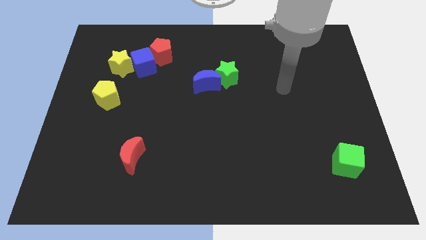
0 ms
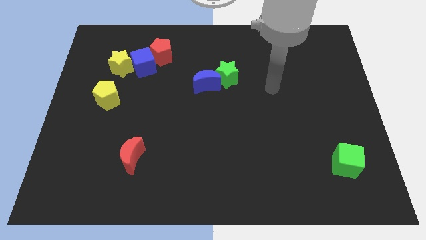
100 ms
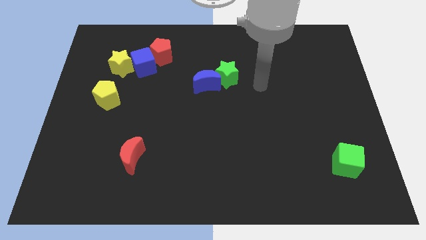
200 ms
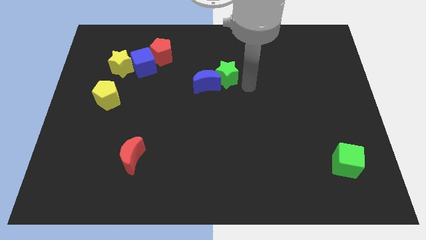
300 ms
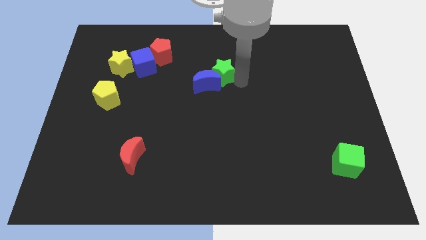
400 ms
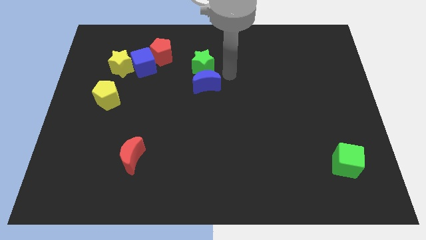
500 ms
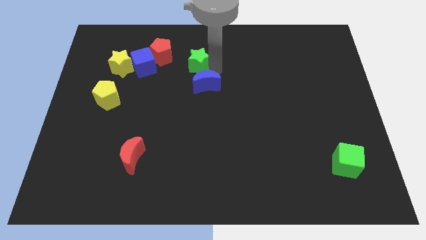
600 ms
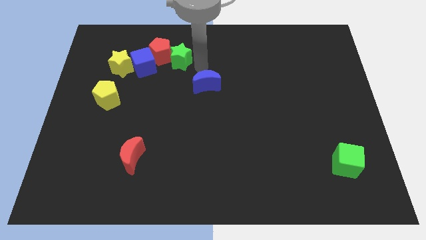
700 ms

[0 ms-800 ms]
separate the blue moon from the green star

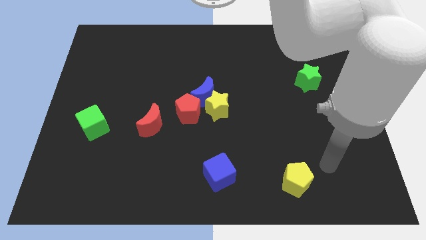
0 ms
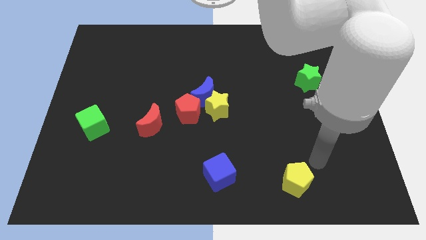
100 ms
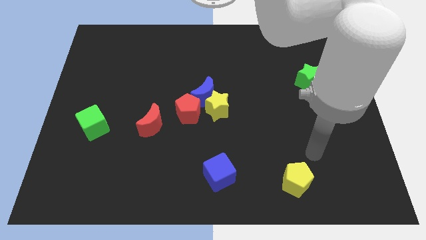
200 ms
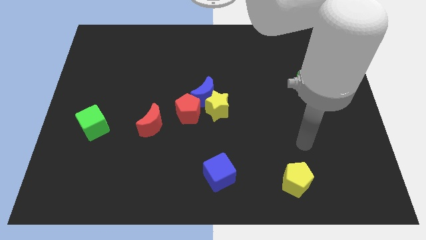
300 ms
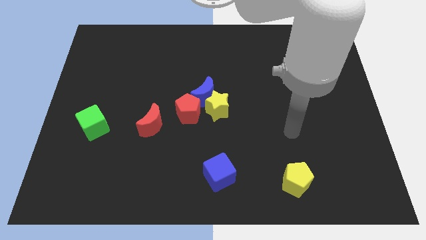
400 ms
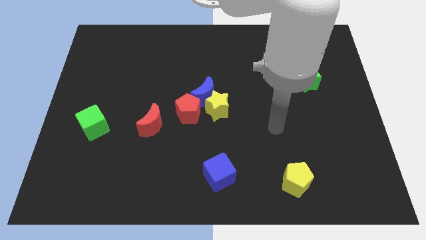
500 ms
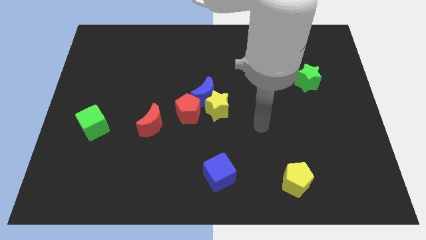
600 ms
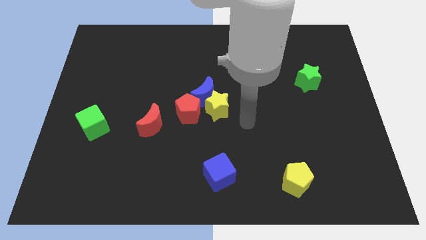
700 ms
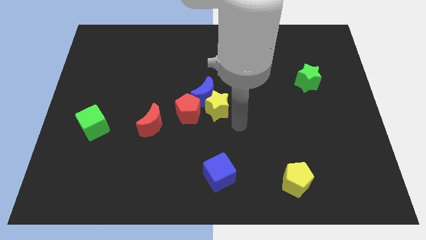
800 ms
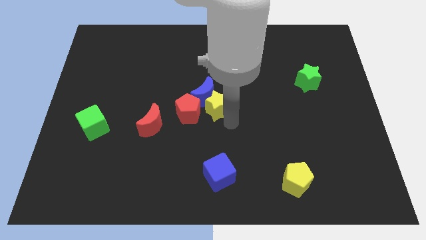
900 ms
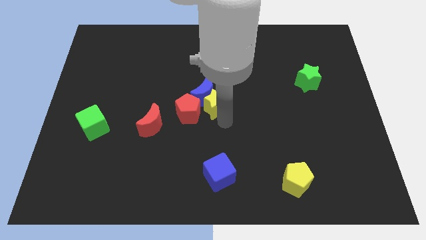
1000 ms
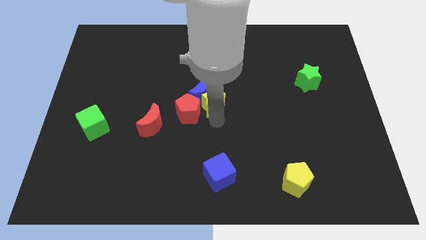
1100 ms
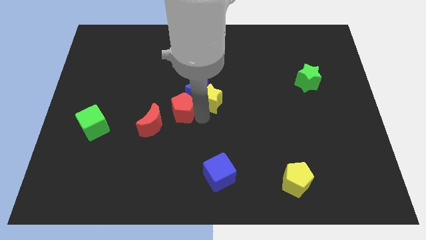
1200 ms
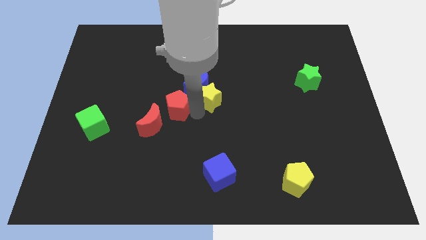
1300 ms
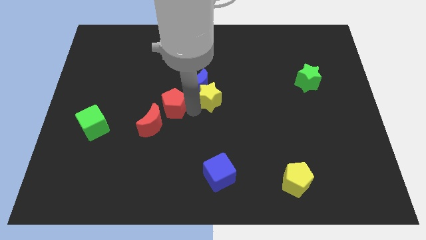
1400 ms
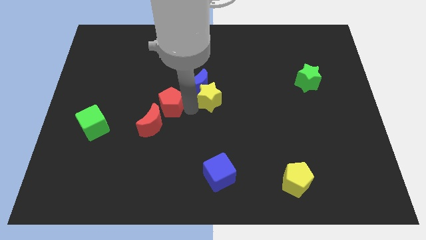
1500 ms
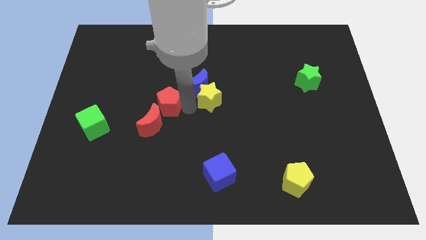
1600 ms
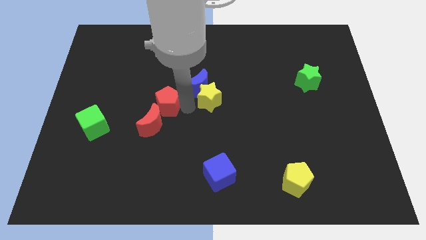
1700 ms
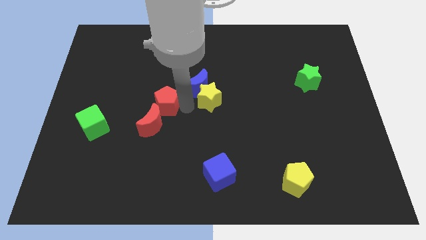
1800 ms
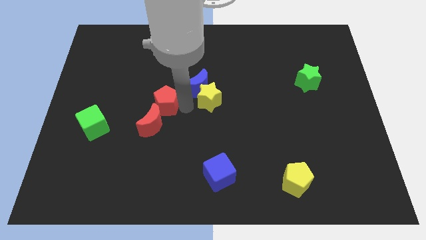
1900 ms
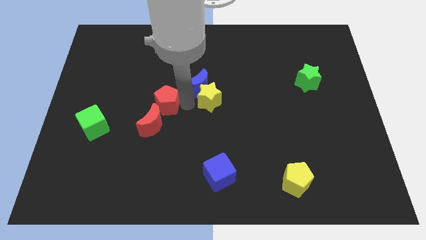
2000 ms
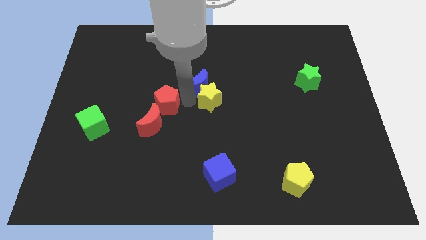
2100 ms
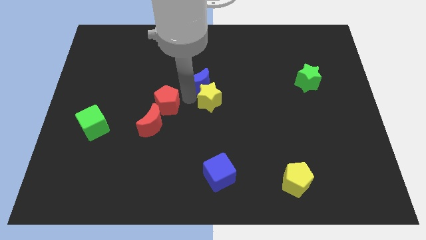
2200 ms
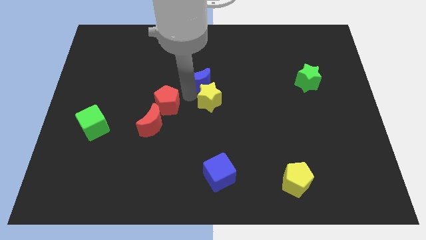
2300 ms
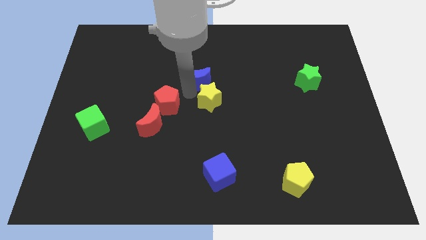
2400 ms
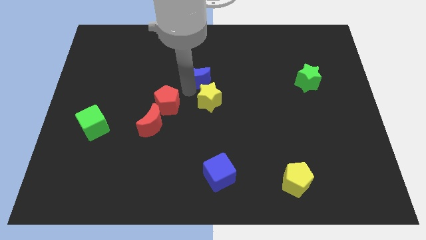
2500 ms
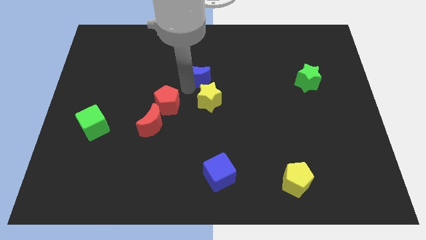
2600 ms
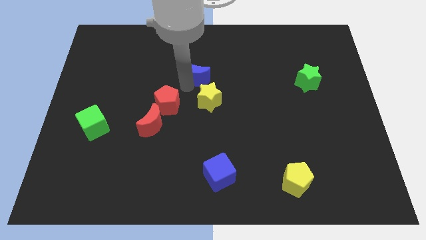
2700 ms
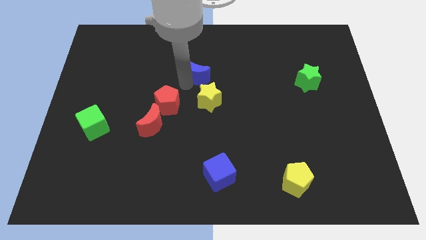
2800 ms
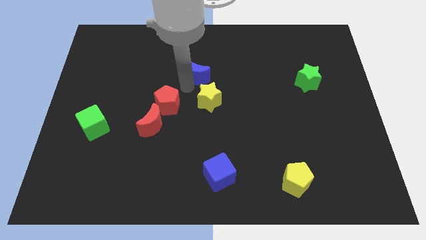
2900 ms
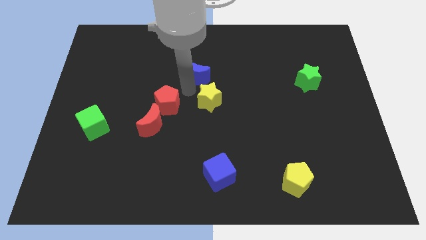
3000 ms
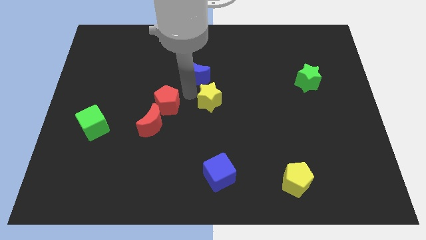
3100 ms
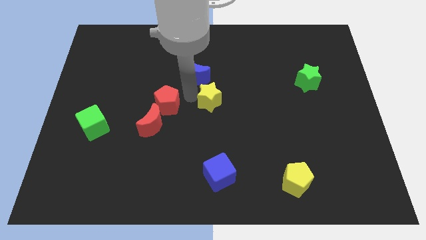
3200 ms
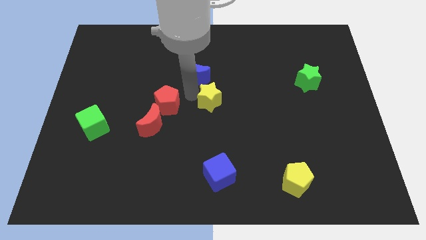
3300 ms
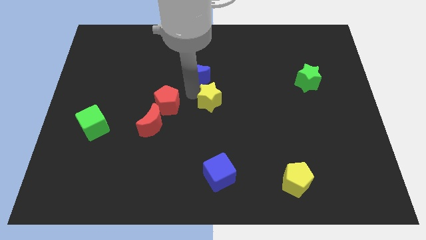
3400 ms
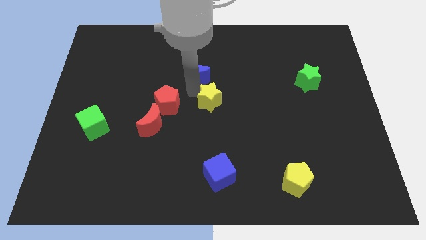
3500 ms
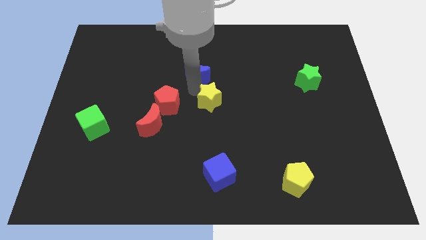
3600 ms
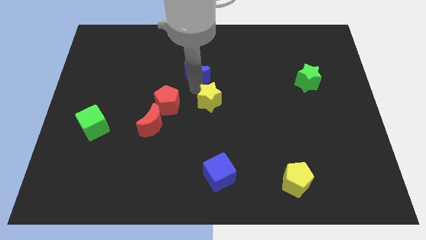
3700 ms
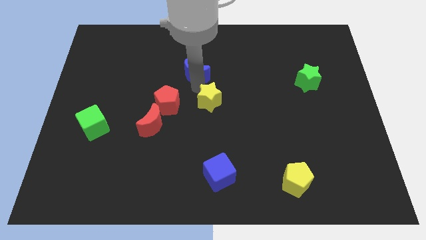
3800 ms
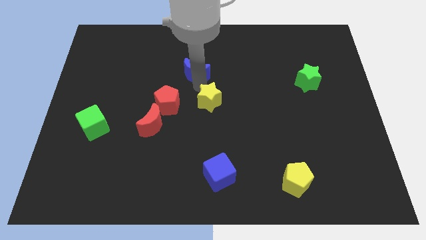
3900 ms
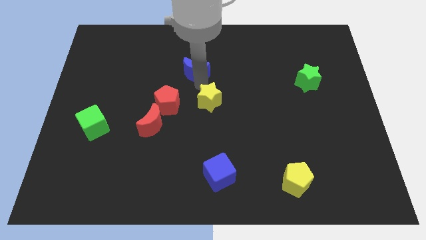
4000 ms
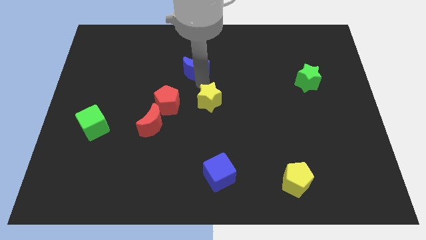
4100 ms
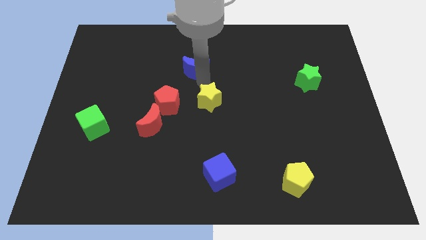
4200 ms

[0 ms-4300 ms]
move the blue moon away from the yellow star and red pentagon

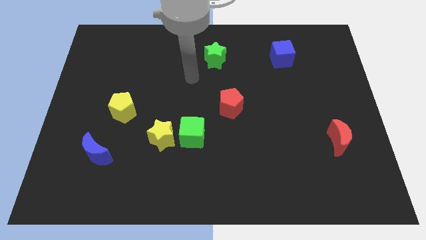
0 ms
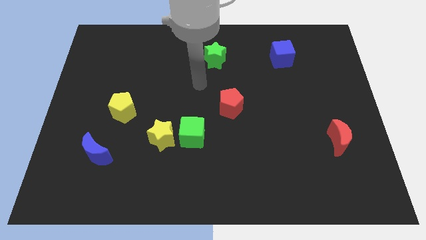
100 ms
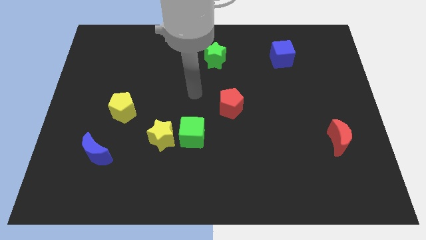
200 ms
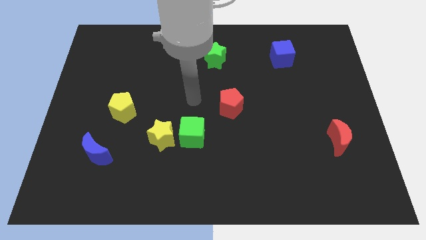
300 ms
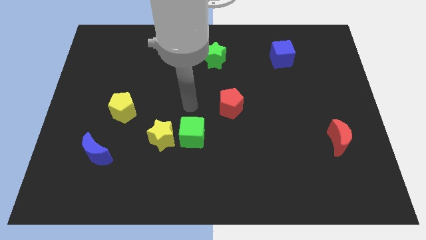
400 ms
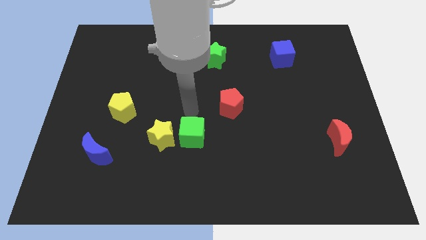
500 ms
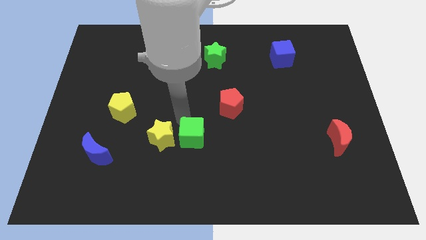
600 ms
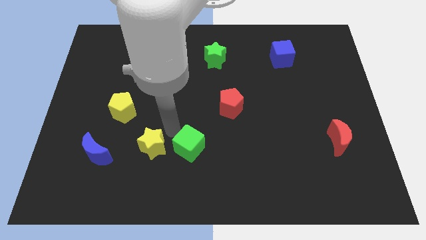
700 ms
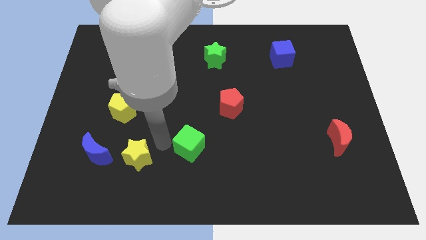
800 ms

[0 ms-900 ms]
separate the green cube from the yellow star

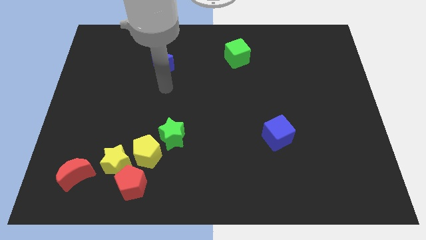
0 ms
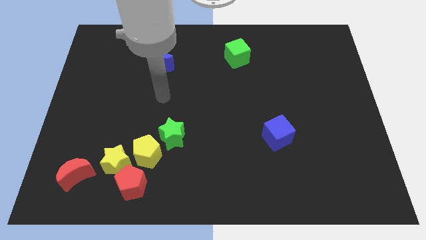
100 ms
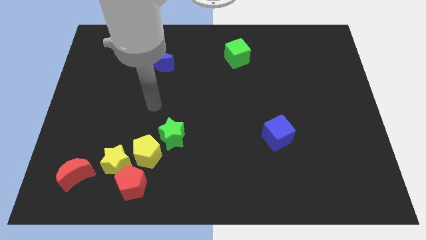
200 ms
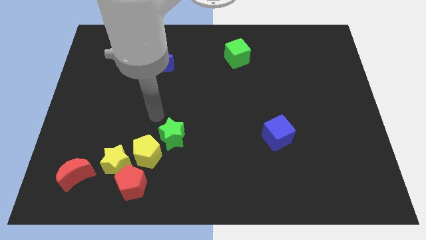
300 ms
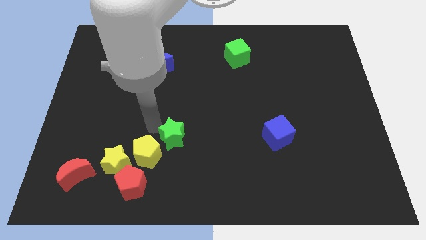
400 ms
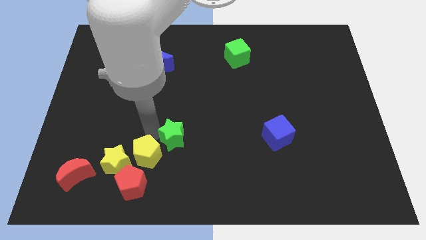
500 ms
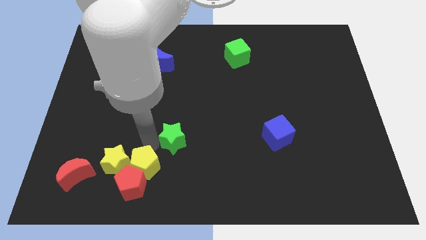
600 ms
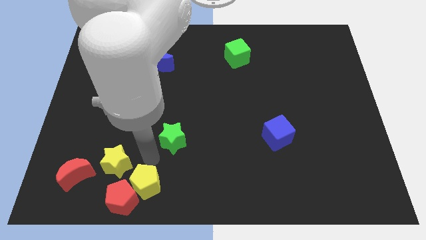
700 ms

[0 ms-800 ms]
separate the green star from the yellow pentagon

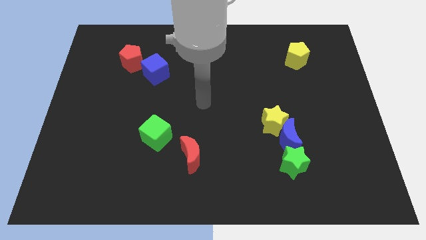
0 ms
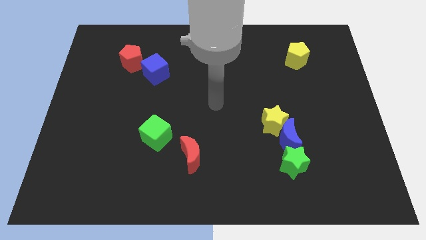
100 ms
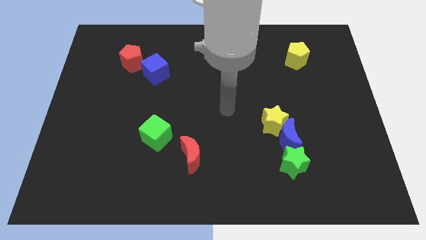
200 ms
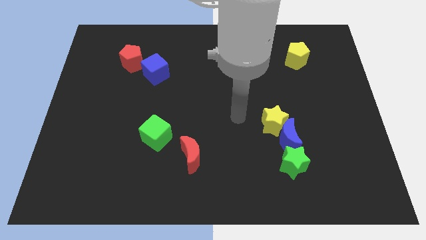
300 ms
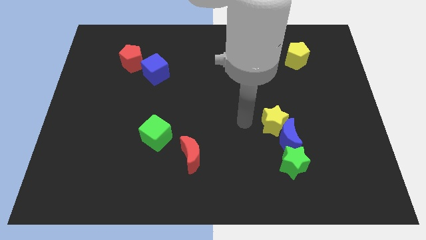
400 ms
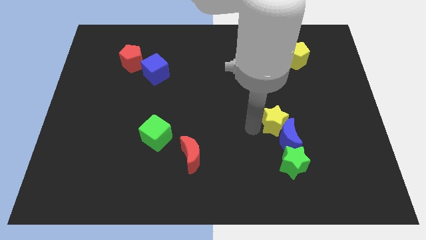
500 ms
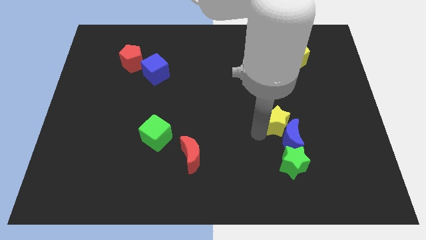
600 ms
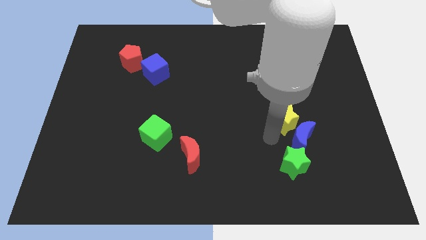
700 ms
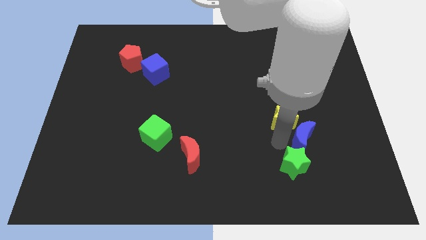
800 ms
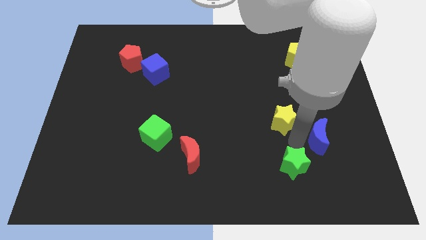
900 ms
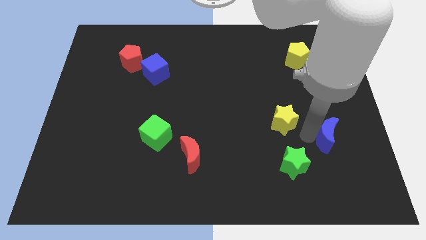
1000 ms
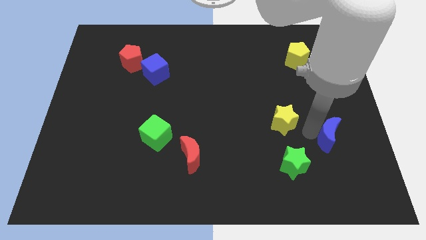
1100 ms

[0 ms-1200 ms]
separate the yellow star from the blue moon

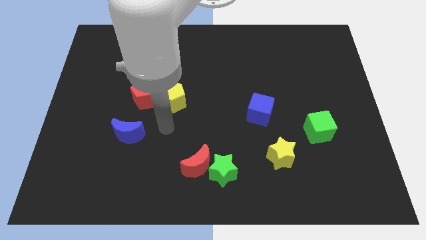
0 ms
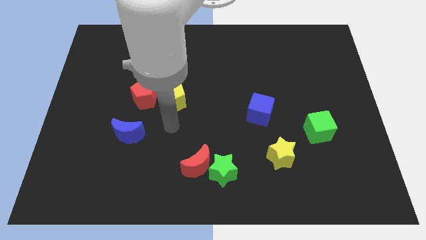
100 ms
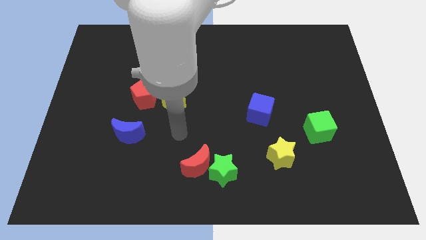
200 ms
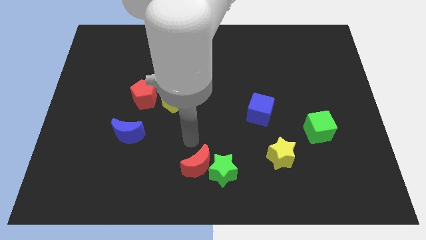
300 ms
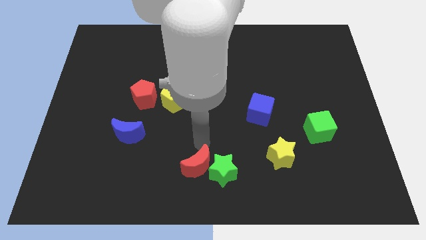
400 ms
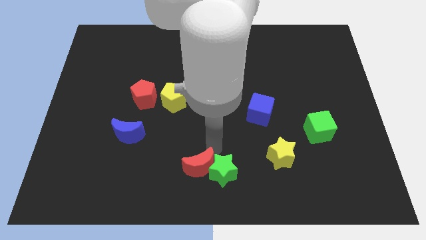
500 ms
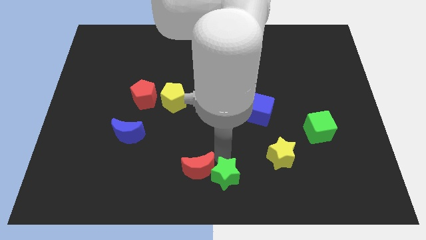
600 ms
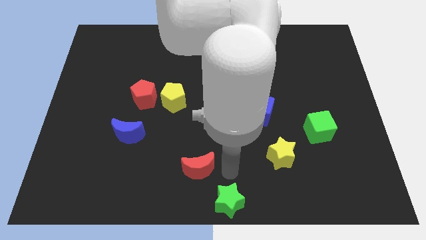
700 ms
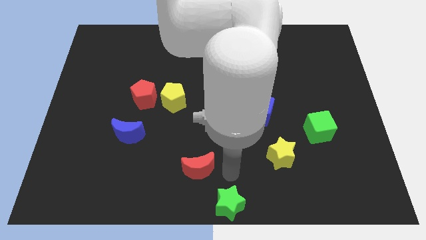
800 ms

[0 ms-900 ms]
separate the red moon from the green star

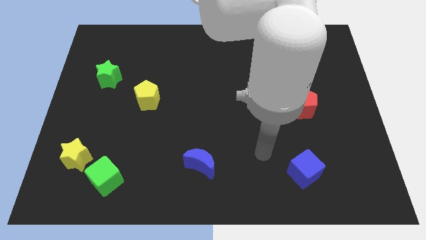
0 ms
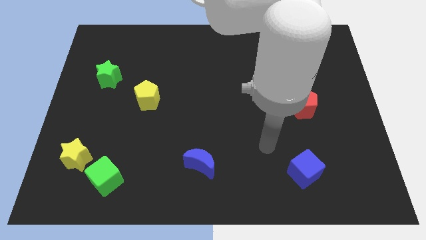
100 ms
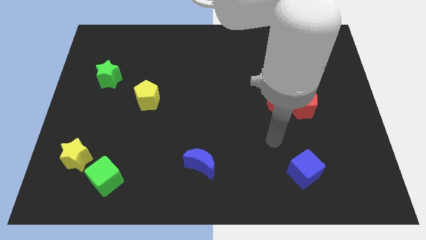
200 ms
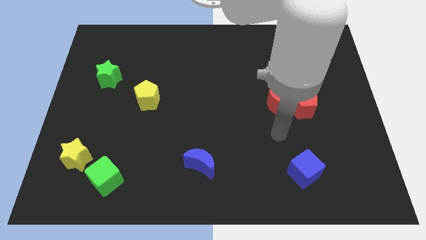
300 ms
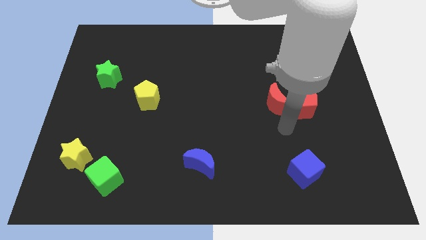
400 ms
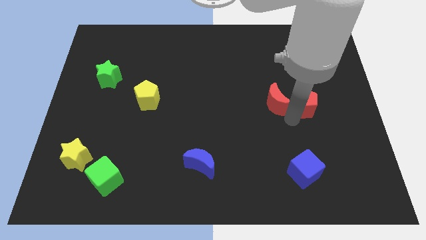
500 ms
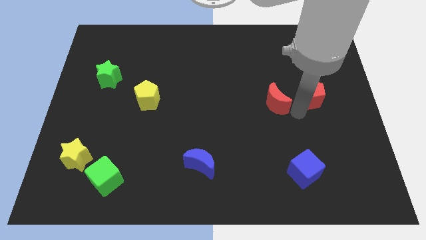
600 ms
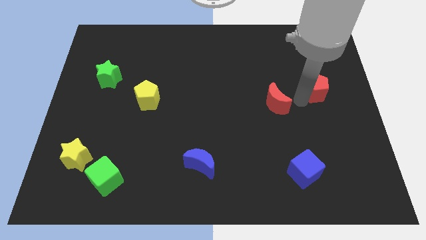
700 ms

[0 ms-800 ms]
move the red moon away from the red pentagon
